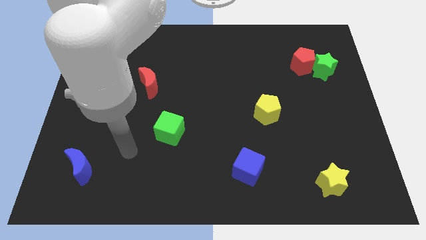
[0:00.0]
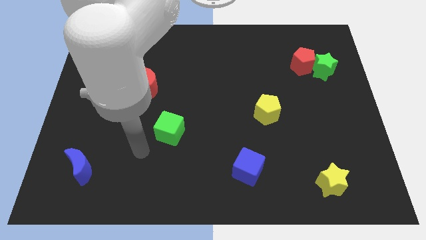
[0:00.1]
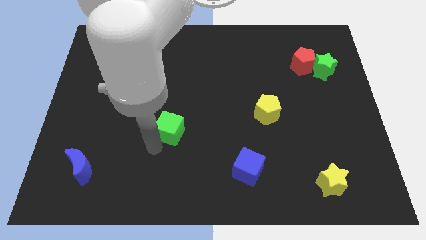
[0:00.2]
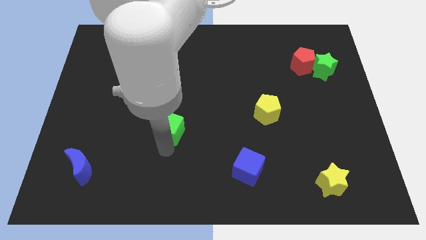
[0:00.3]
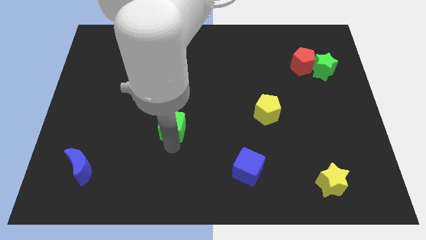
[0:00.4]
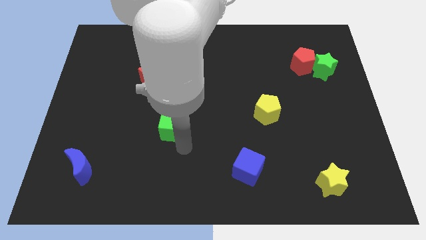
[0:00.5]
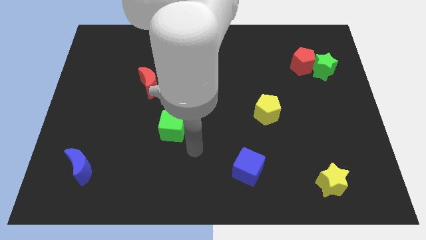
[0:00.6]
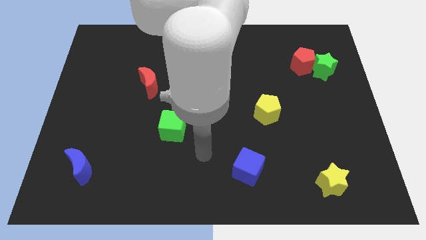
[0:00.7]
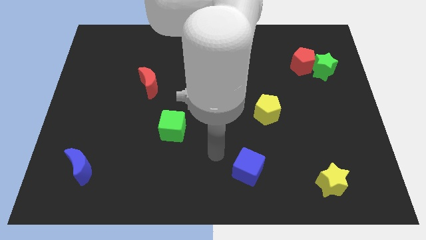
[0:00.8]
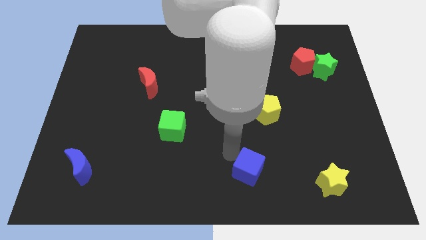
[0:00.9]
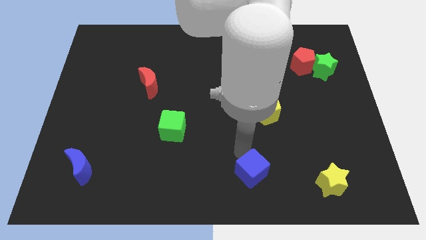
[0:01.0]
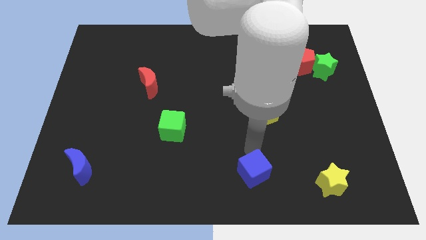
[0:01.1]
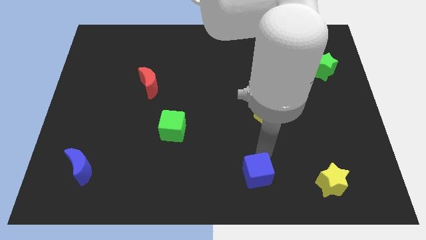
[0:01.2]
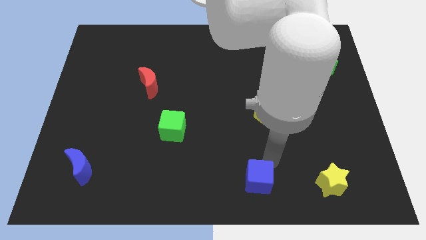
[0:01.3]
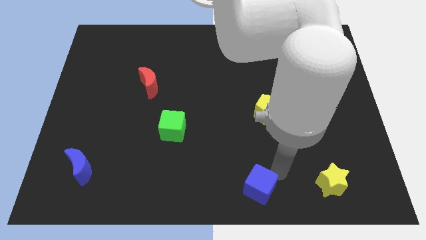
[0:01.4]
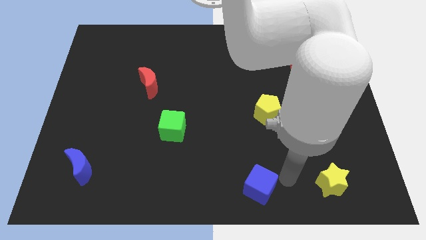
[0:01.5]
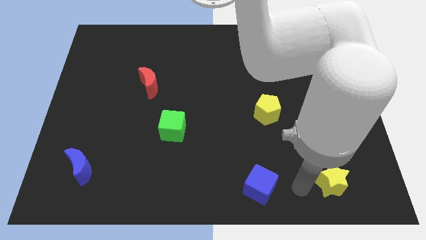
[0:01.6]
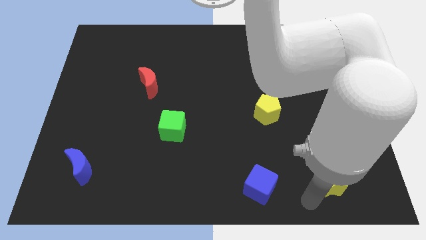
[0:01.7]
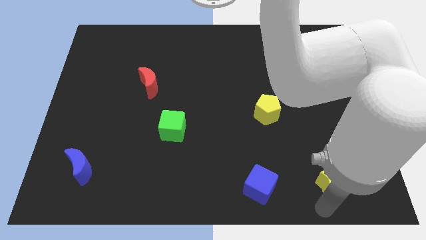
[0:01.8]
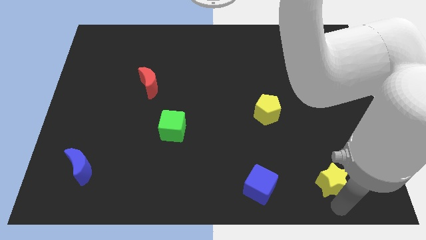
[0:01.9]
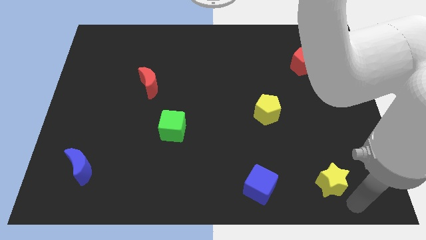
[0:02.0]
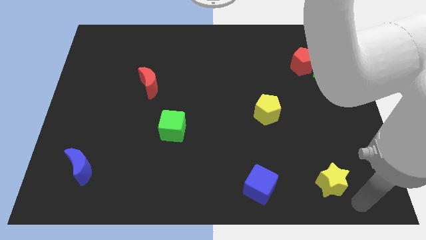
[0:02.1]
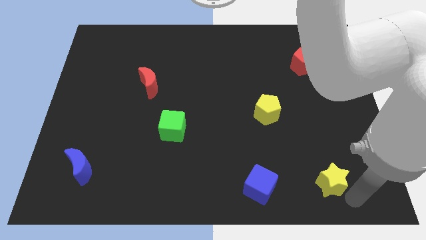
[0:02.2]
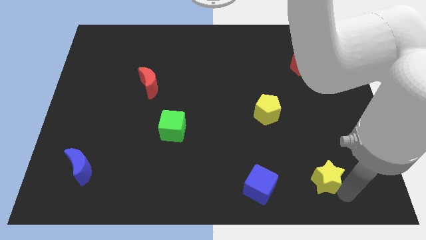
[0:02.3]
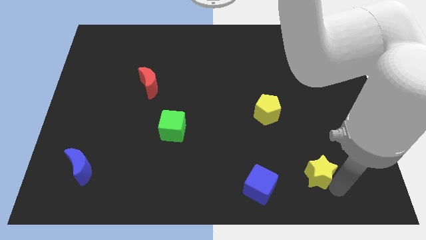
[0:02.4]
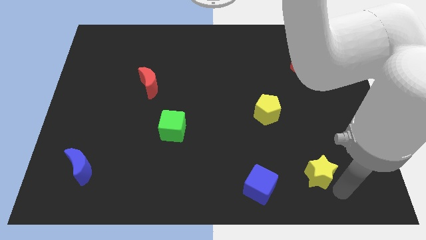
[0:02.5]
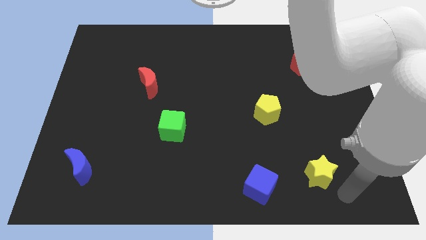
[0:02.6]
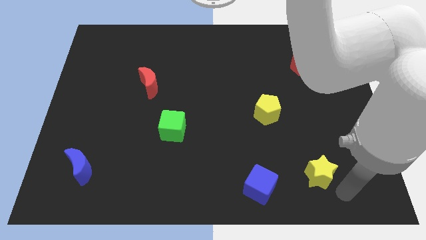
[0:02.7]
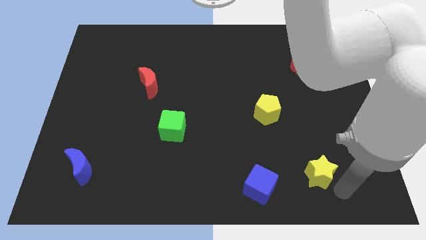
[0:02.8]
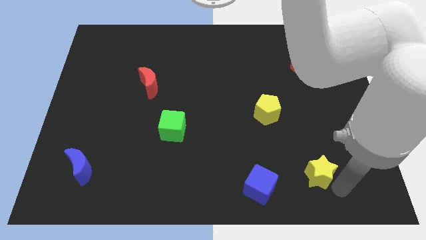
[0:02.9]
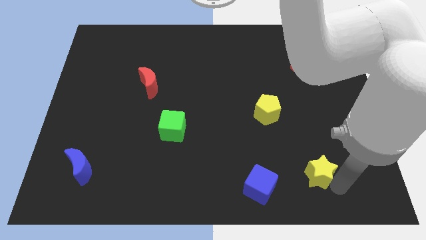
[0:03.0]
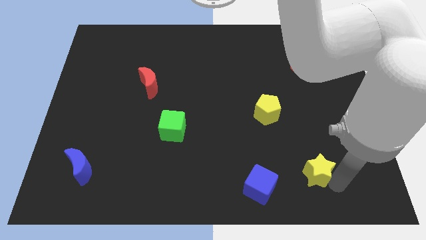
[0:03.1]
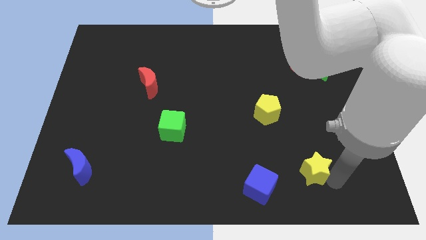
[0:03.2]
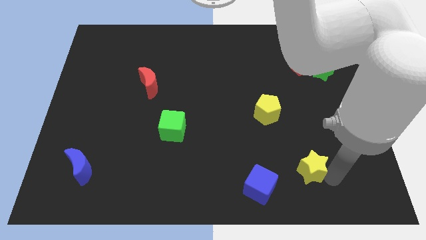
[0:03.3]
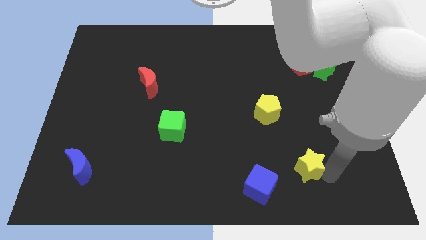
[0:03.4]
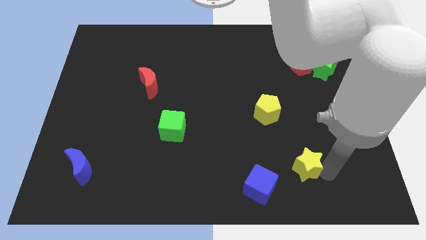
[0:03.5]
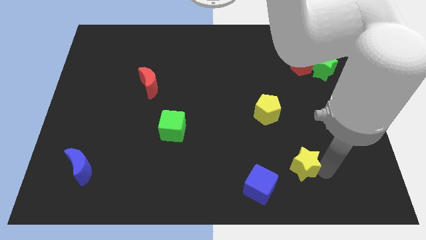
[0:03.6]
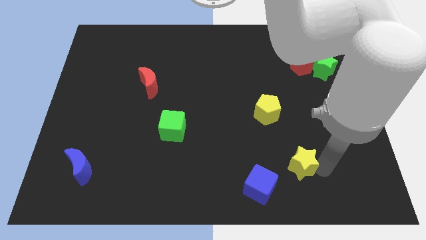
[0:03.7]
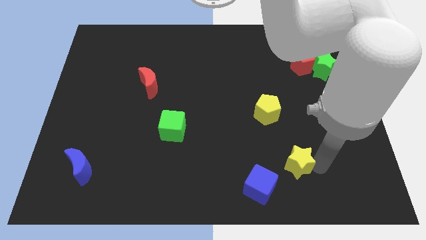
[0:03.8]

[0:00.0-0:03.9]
move the yellow star upwards and left slightly

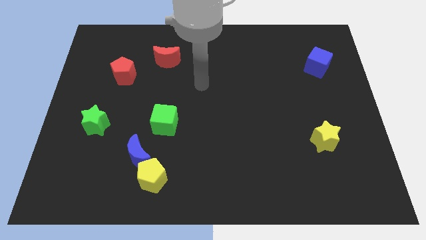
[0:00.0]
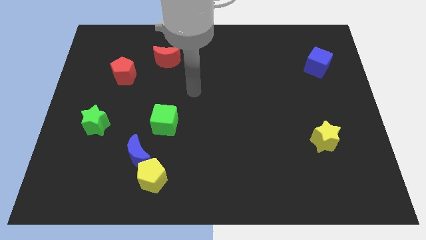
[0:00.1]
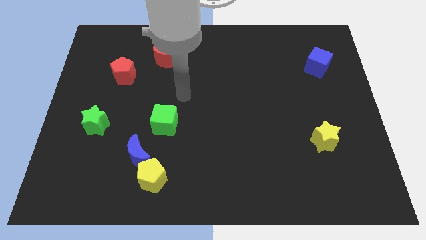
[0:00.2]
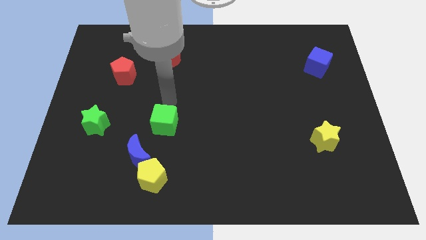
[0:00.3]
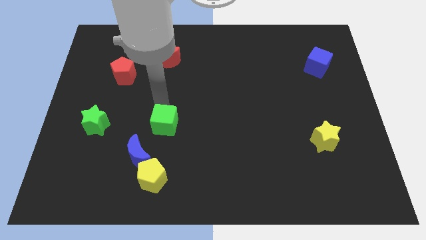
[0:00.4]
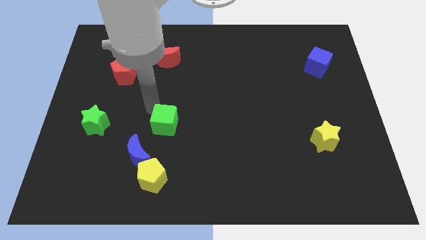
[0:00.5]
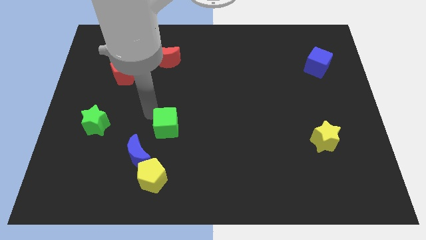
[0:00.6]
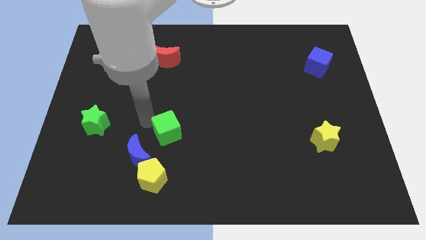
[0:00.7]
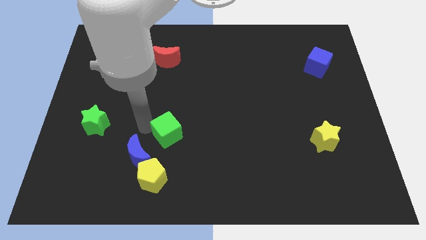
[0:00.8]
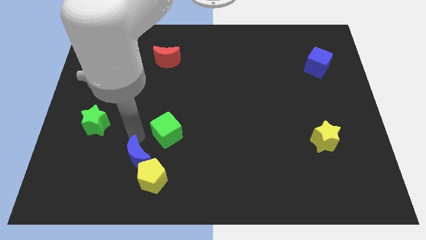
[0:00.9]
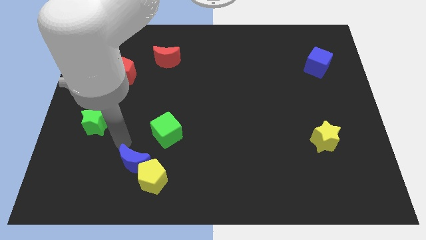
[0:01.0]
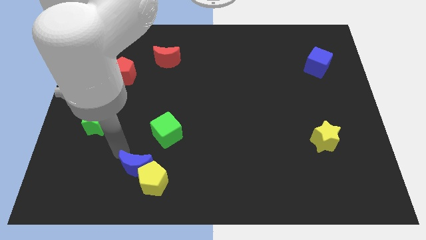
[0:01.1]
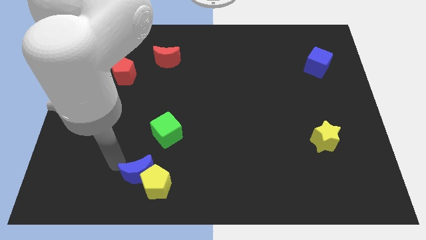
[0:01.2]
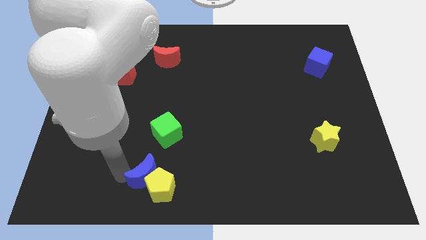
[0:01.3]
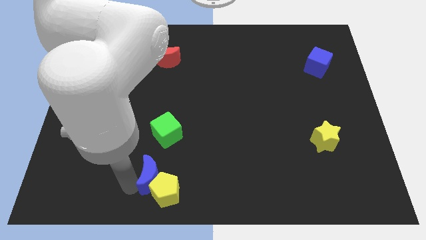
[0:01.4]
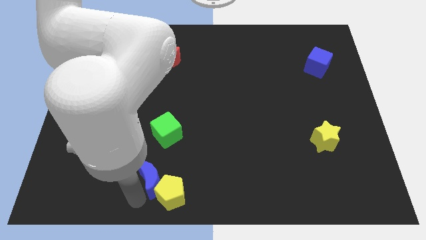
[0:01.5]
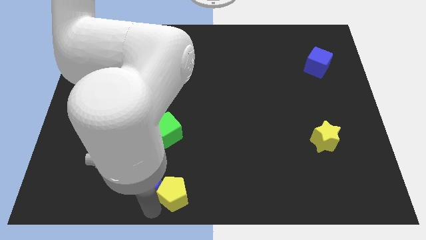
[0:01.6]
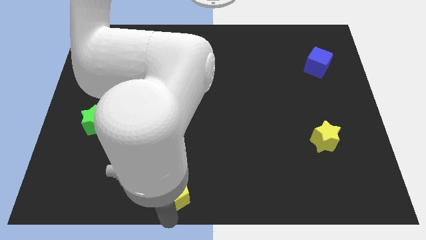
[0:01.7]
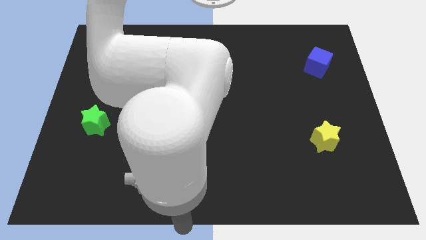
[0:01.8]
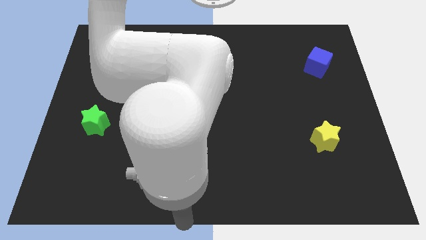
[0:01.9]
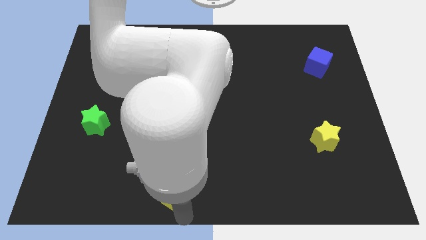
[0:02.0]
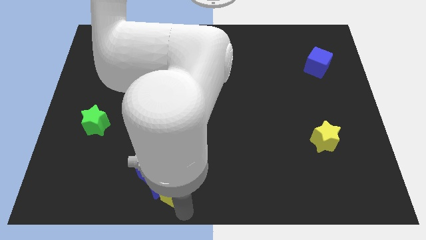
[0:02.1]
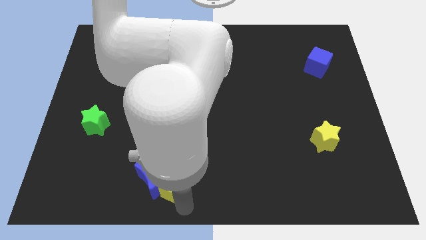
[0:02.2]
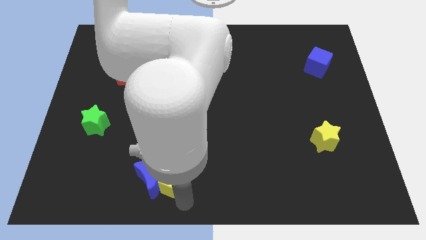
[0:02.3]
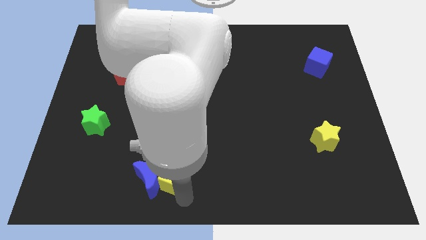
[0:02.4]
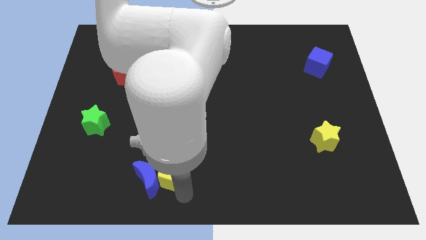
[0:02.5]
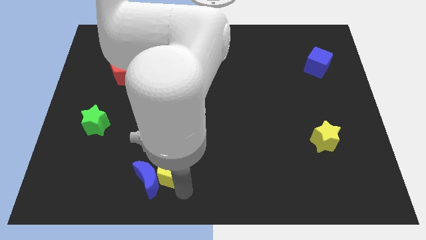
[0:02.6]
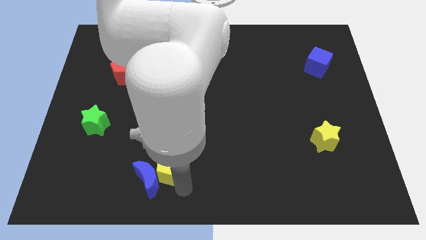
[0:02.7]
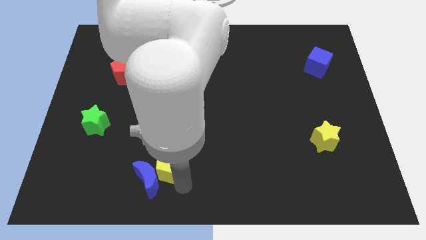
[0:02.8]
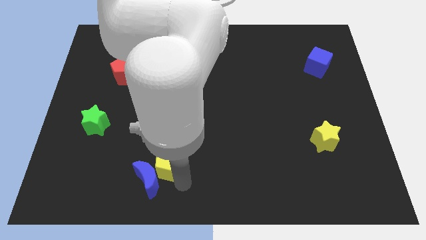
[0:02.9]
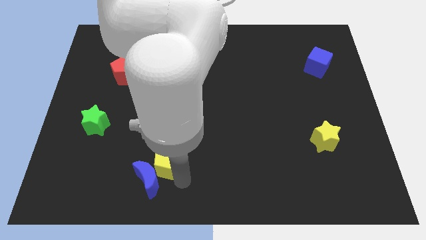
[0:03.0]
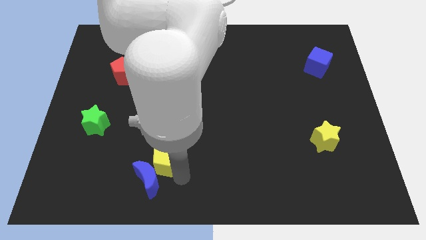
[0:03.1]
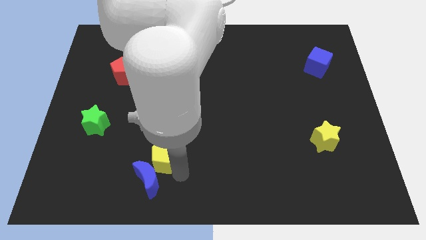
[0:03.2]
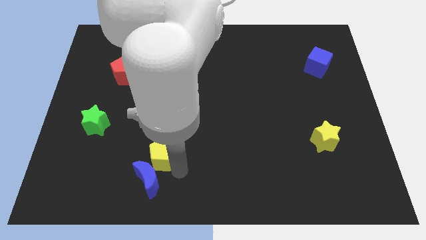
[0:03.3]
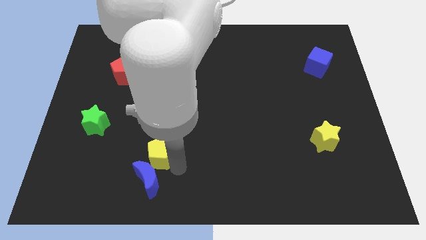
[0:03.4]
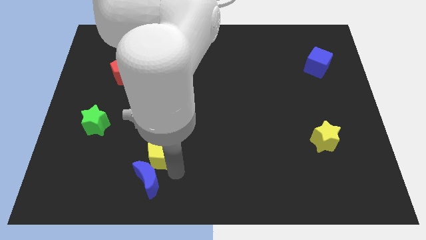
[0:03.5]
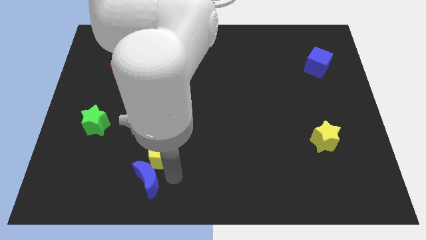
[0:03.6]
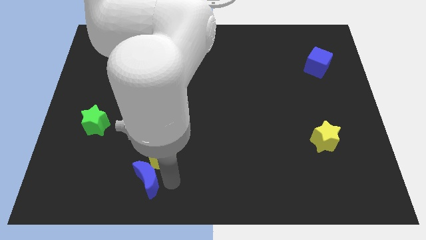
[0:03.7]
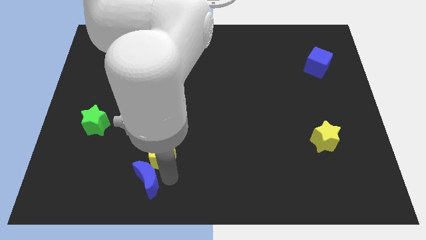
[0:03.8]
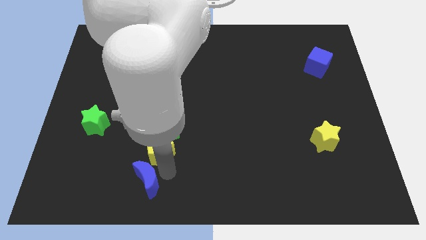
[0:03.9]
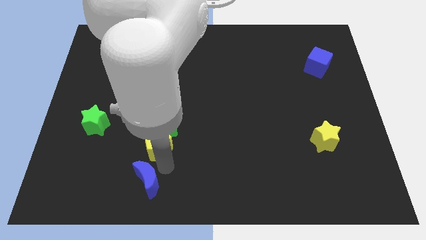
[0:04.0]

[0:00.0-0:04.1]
slide the yellow pentagon up a little bit

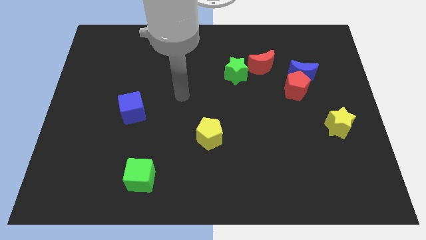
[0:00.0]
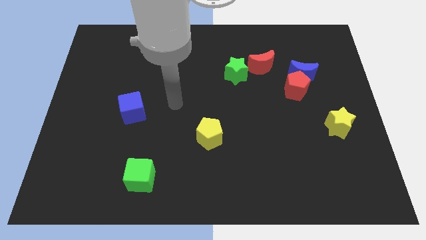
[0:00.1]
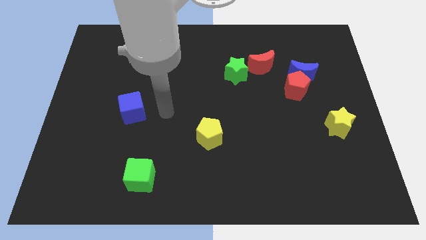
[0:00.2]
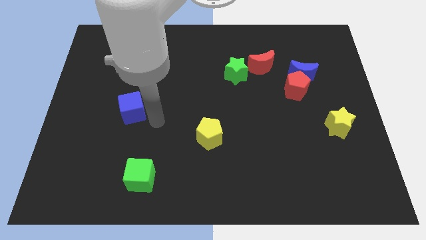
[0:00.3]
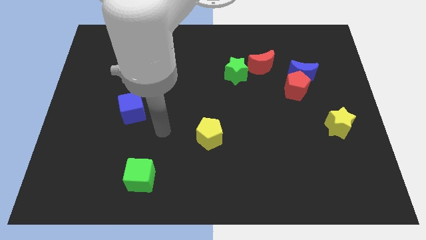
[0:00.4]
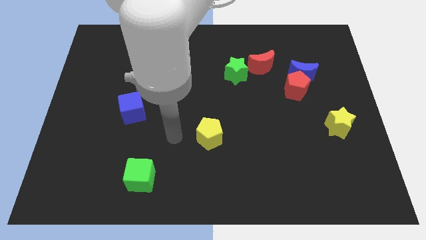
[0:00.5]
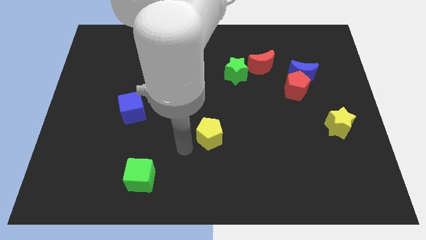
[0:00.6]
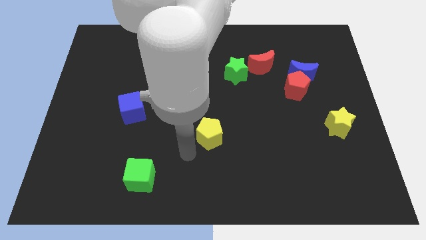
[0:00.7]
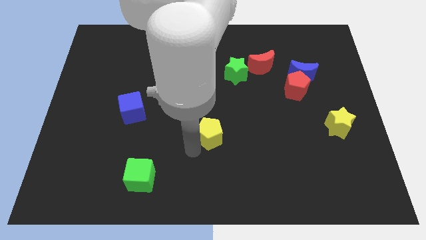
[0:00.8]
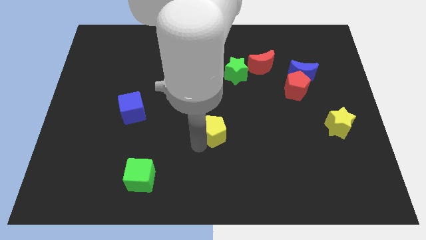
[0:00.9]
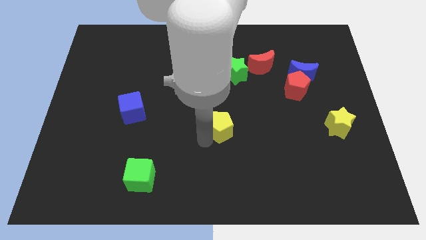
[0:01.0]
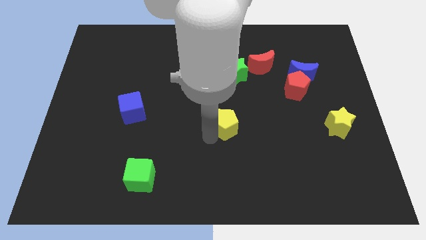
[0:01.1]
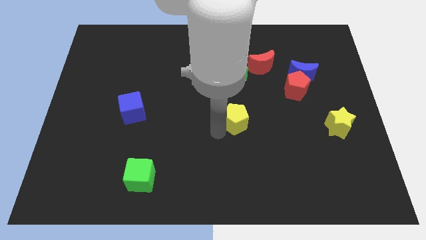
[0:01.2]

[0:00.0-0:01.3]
push the yellow pentagon slightly upwards and right
